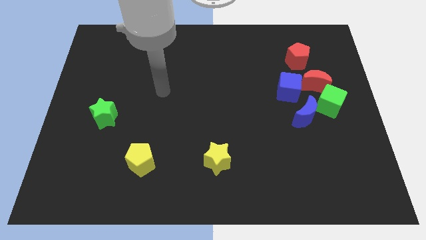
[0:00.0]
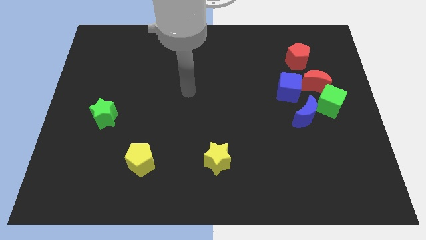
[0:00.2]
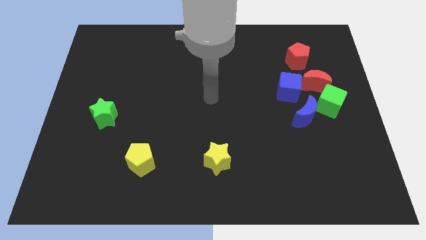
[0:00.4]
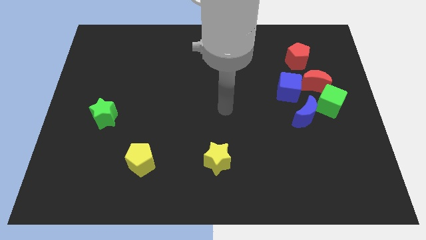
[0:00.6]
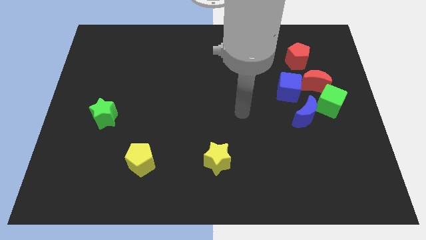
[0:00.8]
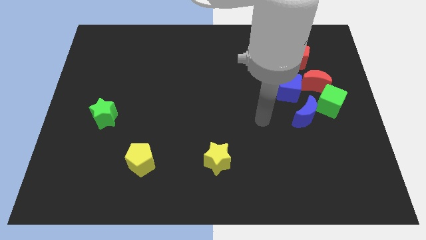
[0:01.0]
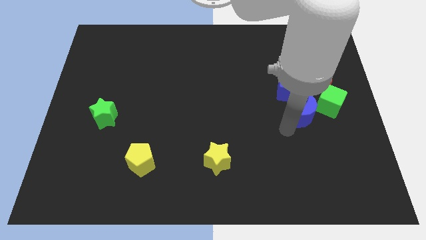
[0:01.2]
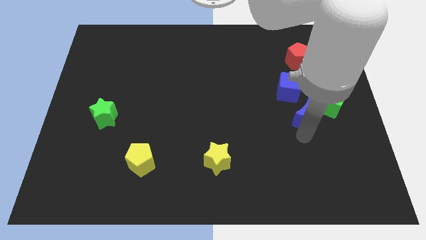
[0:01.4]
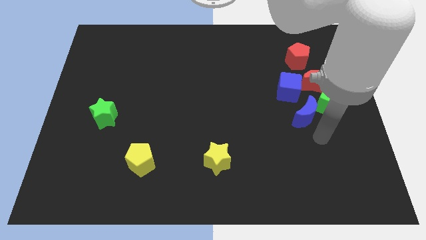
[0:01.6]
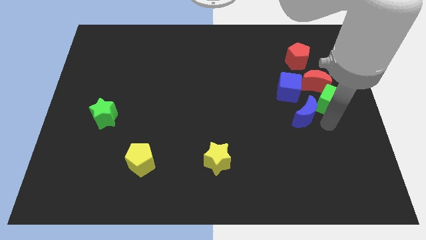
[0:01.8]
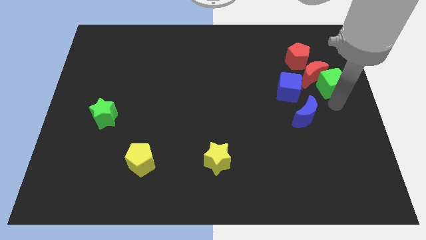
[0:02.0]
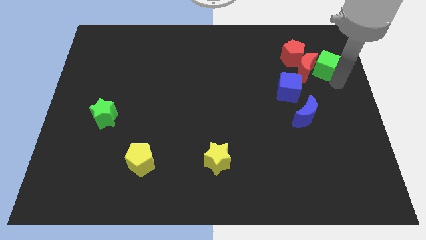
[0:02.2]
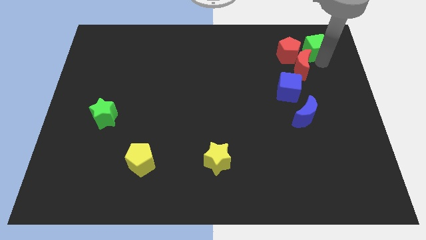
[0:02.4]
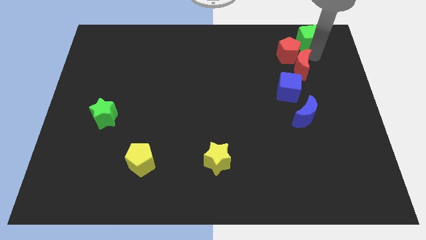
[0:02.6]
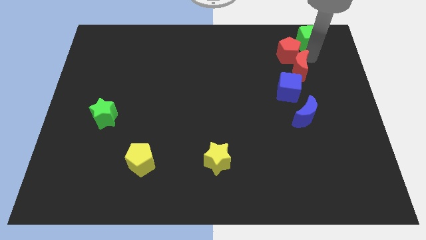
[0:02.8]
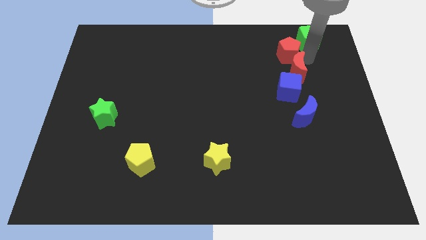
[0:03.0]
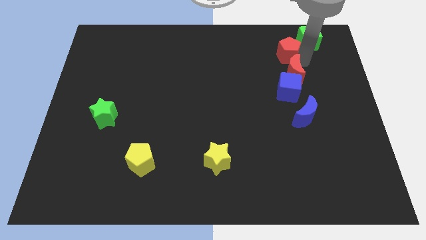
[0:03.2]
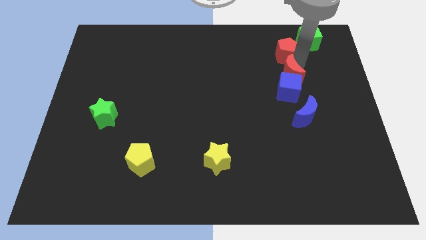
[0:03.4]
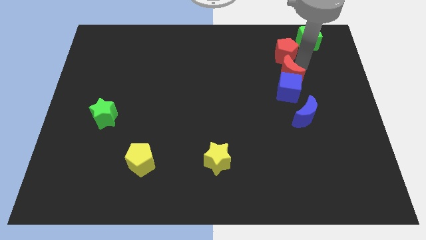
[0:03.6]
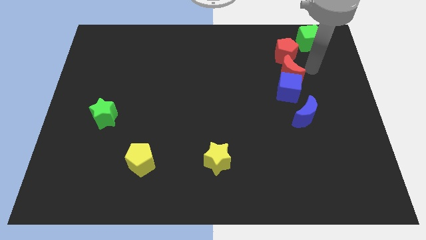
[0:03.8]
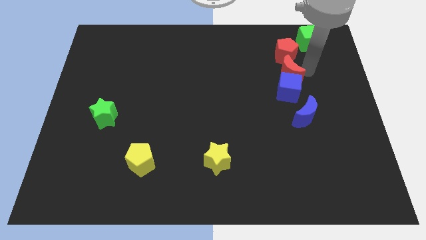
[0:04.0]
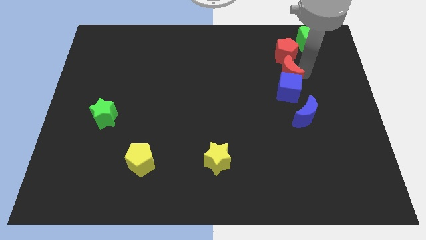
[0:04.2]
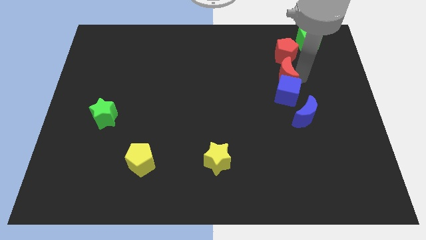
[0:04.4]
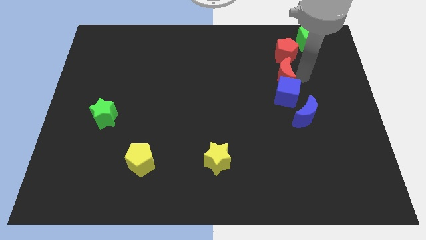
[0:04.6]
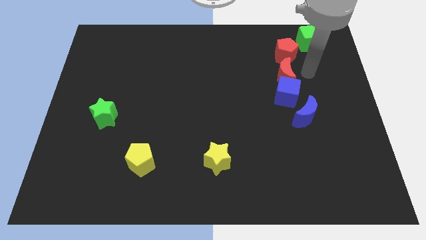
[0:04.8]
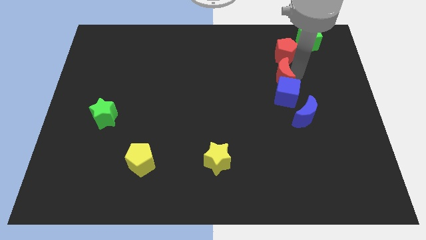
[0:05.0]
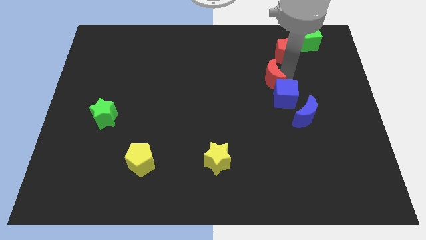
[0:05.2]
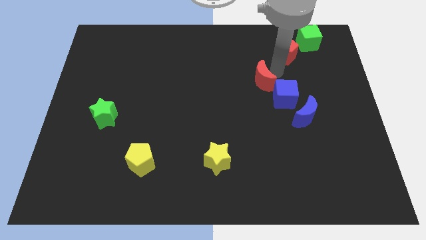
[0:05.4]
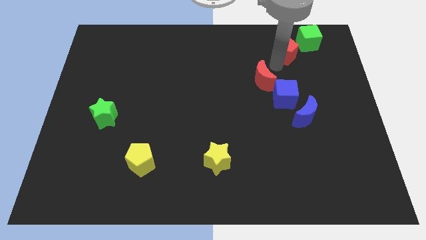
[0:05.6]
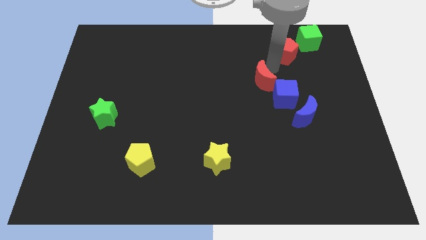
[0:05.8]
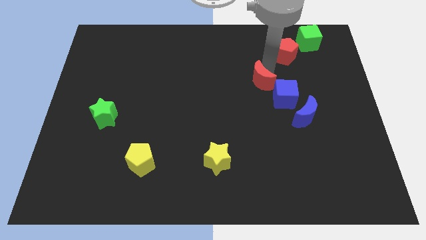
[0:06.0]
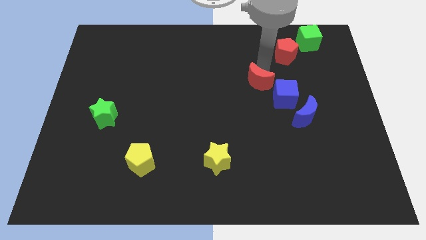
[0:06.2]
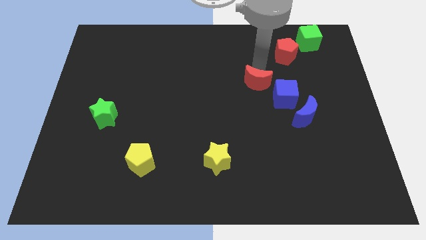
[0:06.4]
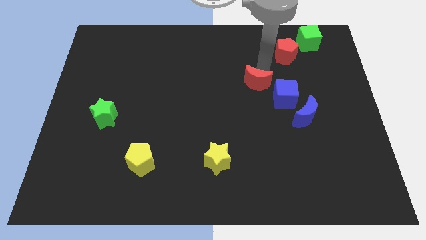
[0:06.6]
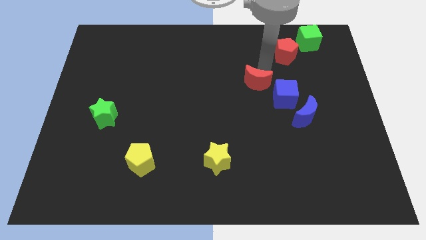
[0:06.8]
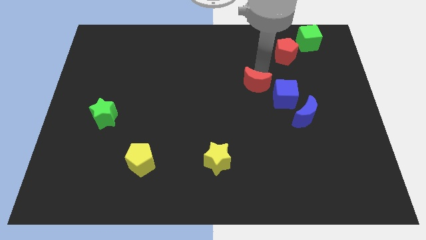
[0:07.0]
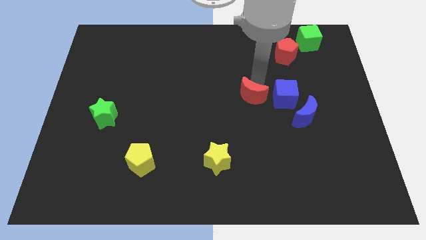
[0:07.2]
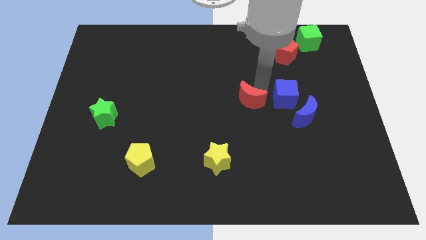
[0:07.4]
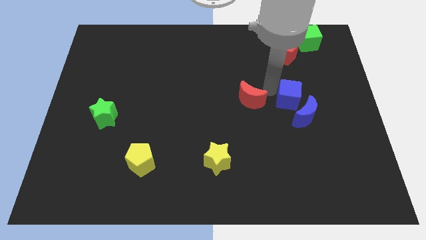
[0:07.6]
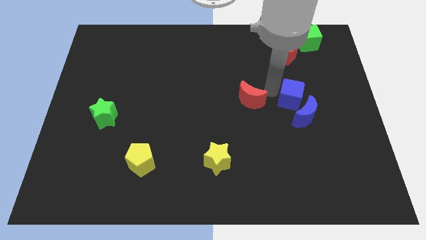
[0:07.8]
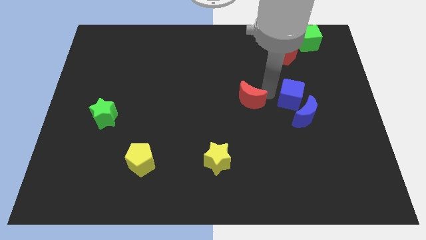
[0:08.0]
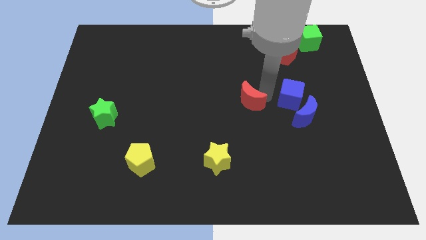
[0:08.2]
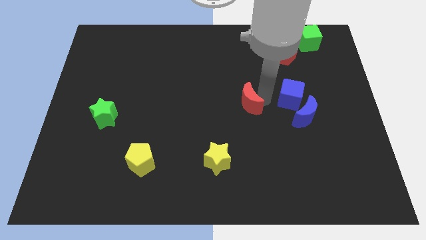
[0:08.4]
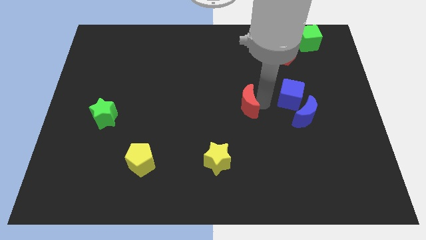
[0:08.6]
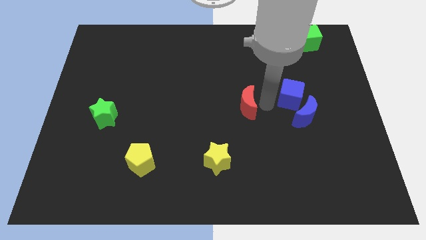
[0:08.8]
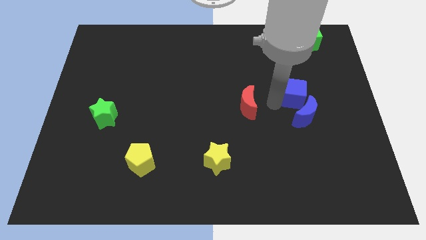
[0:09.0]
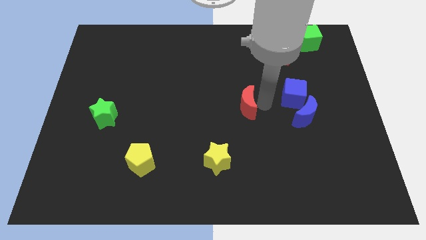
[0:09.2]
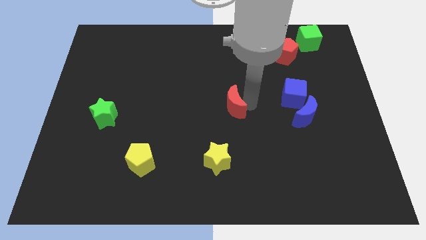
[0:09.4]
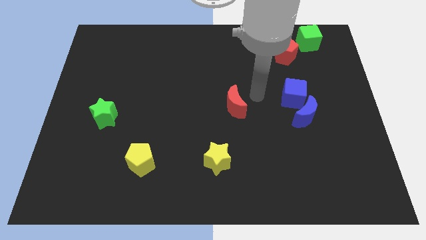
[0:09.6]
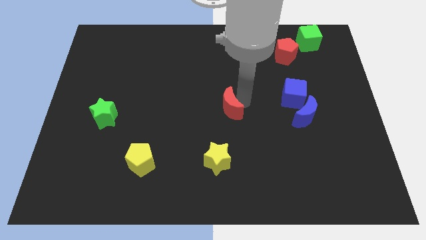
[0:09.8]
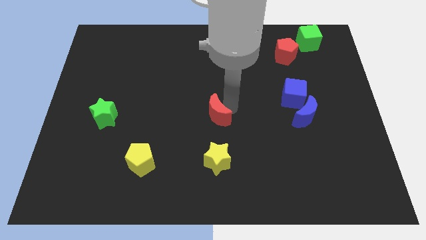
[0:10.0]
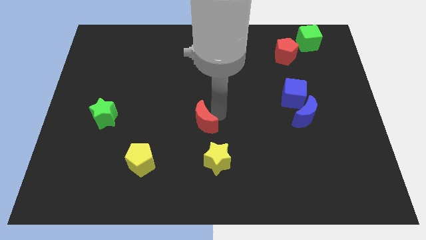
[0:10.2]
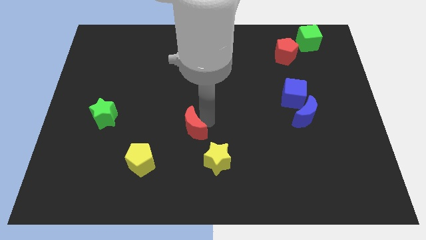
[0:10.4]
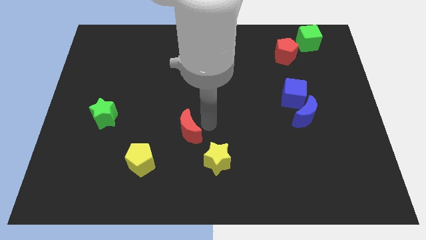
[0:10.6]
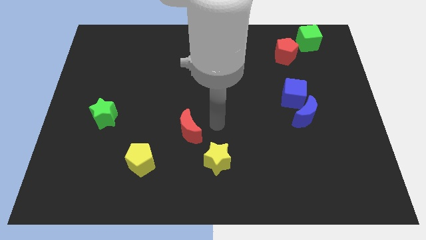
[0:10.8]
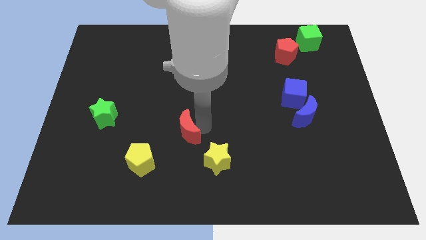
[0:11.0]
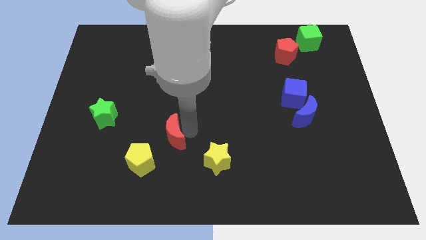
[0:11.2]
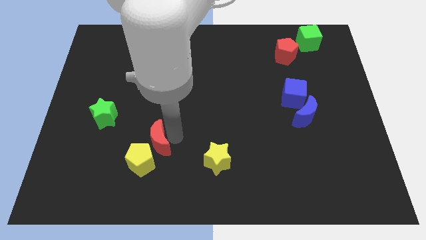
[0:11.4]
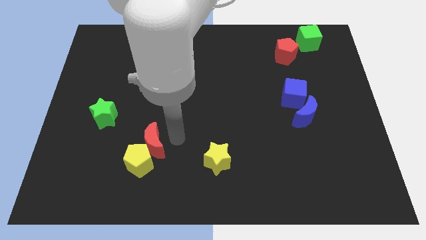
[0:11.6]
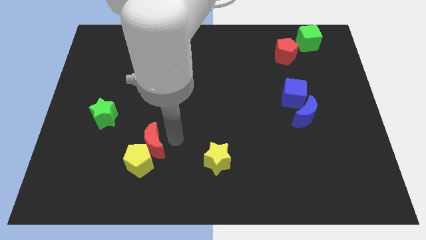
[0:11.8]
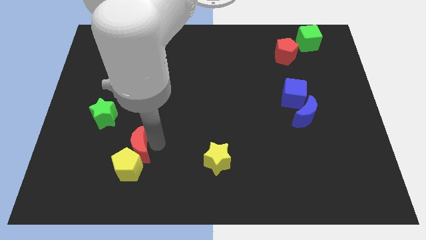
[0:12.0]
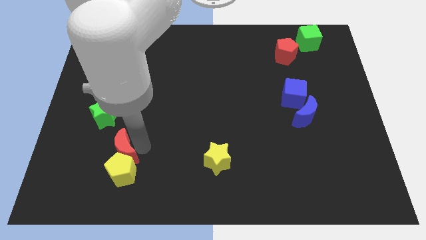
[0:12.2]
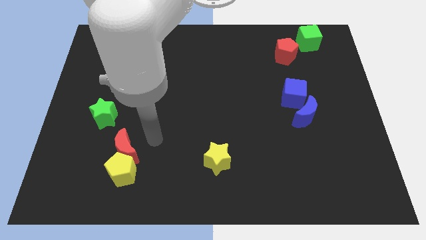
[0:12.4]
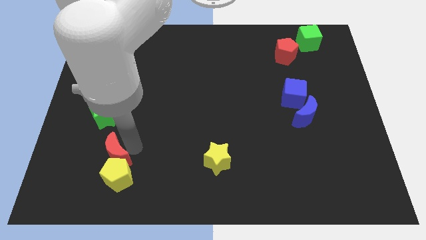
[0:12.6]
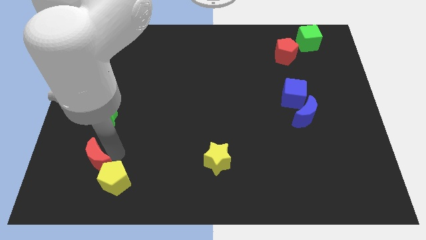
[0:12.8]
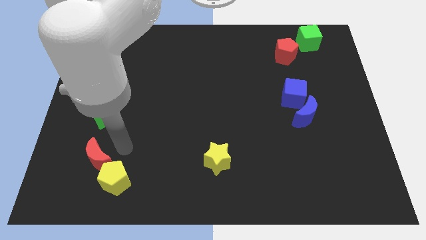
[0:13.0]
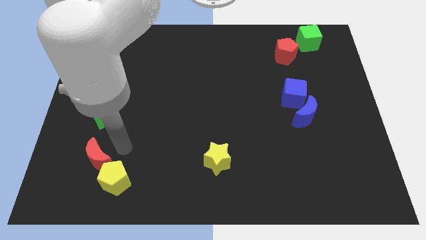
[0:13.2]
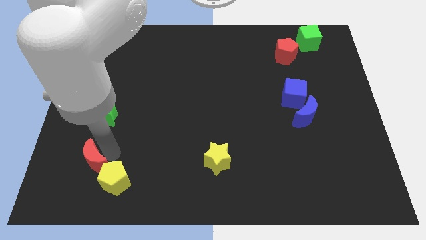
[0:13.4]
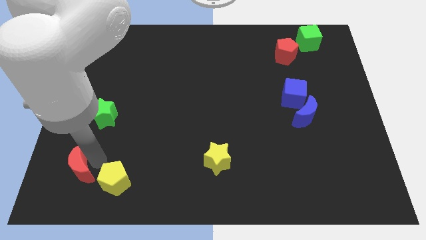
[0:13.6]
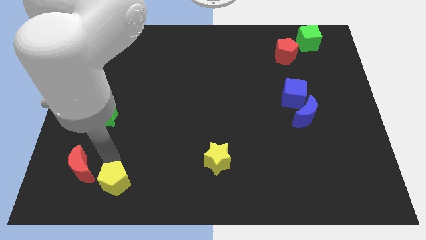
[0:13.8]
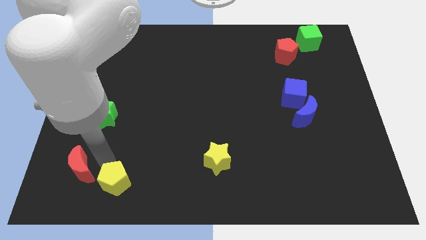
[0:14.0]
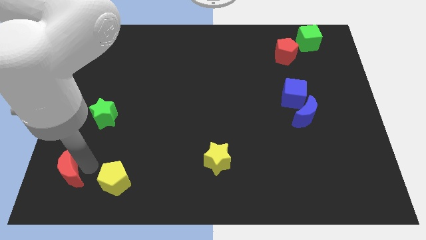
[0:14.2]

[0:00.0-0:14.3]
move the red moon to the bottom left corner

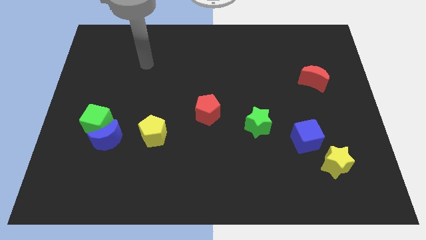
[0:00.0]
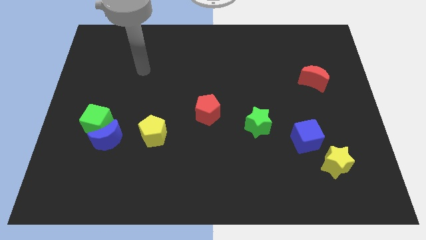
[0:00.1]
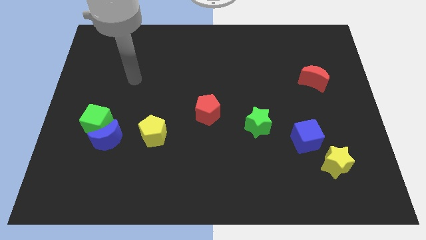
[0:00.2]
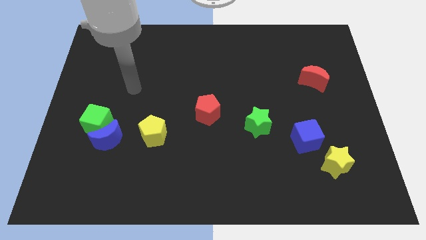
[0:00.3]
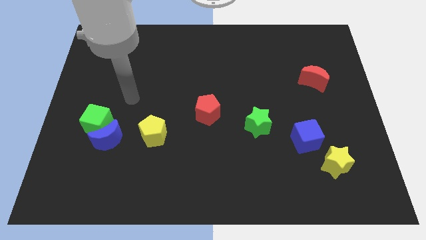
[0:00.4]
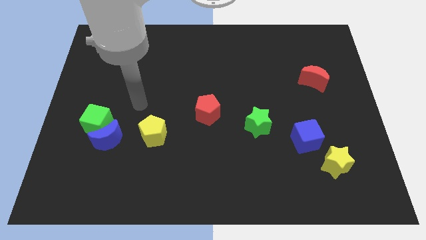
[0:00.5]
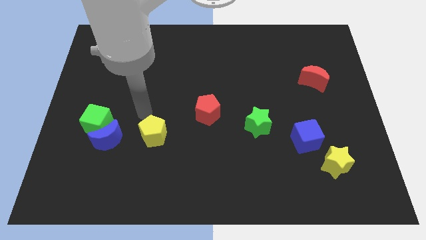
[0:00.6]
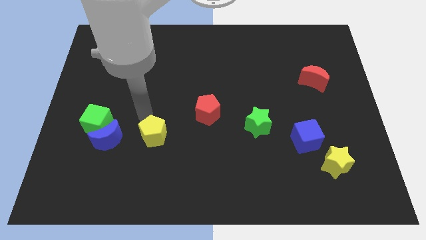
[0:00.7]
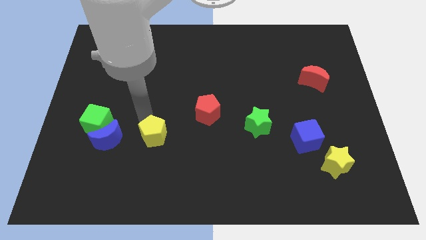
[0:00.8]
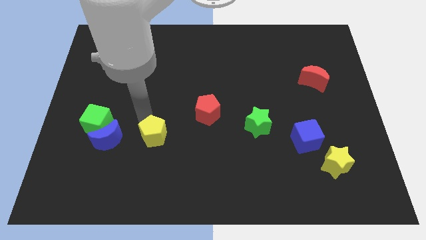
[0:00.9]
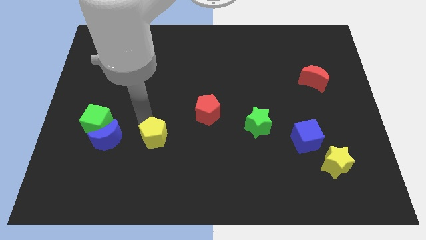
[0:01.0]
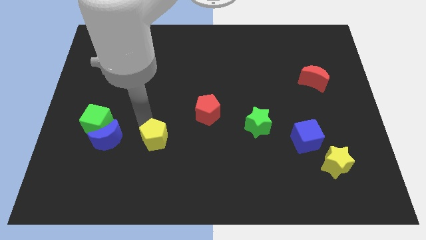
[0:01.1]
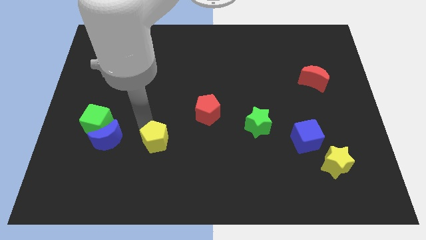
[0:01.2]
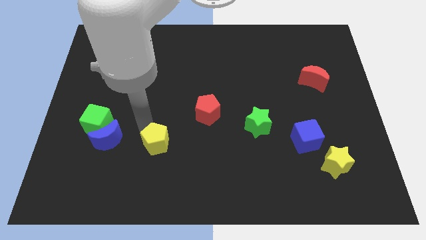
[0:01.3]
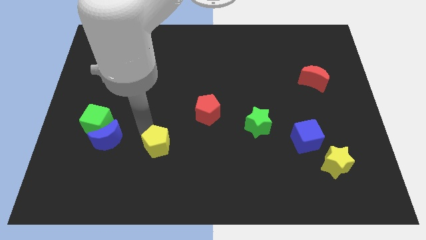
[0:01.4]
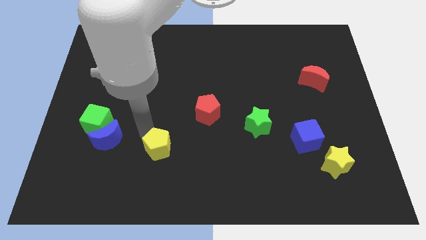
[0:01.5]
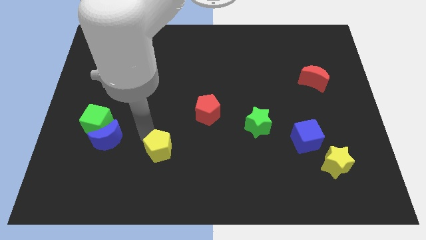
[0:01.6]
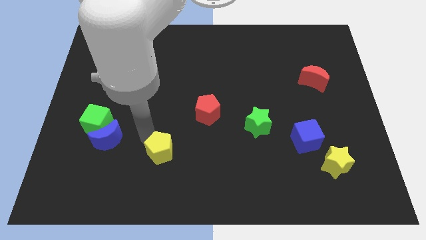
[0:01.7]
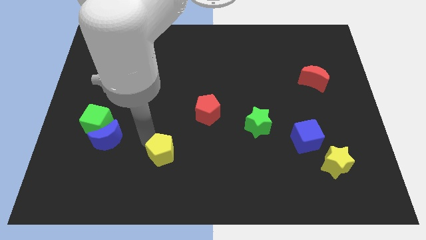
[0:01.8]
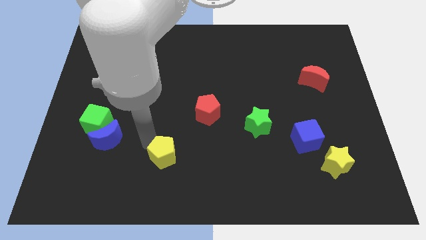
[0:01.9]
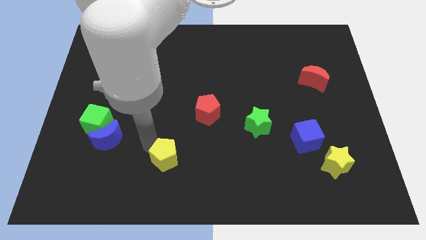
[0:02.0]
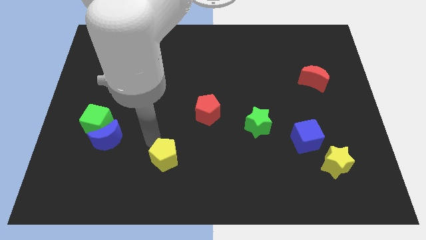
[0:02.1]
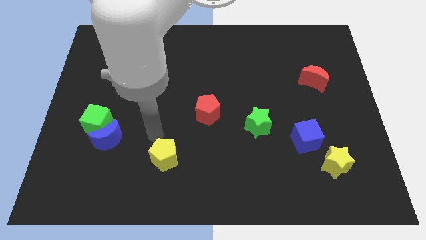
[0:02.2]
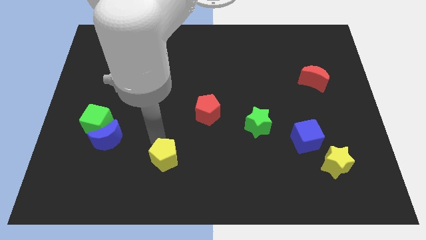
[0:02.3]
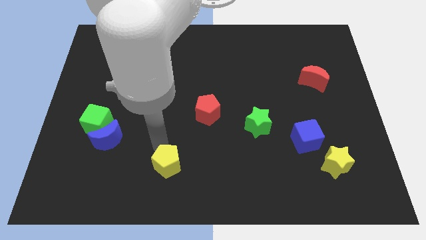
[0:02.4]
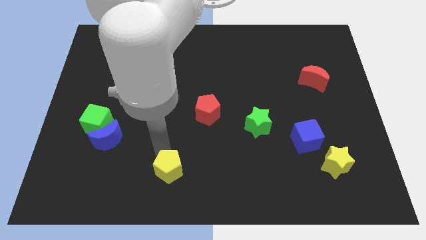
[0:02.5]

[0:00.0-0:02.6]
push the yellow pentagon to the bottom
